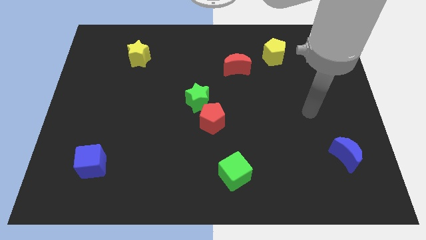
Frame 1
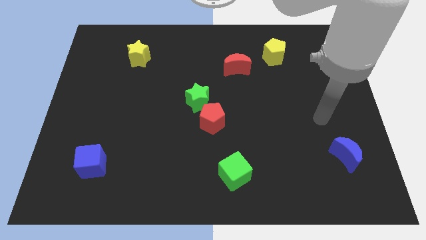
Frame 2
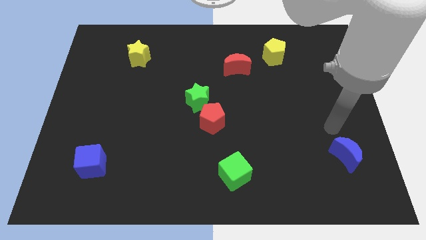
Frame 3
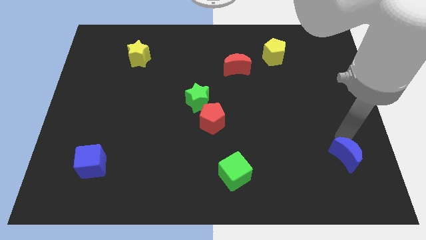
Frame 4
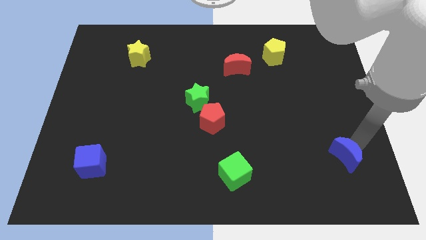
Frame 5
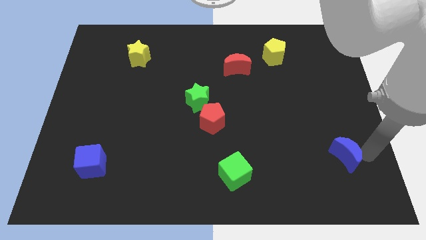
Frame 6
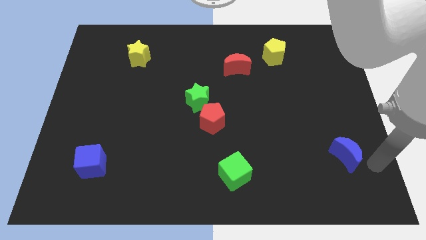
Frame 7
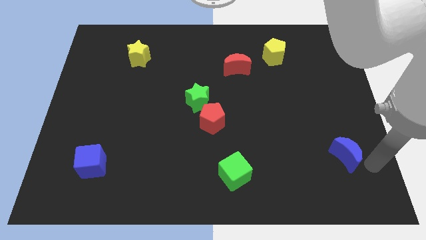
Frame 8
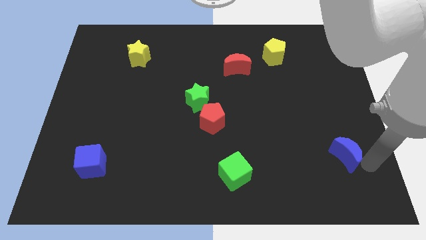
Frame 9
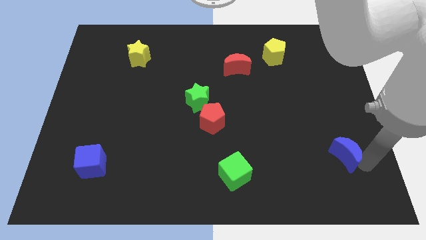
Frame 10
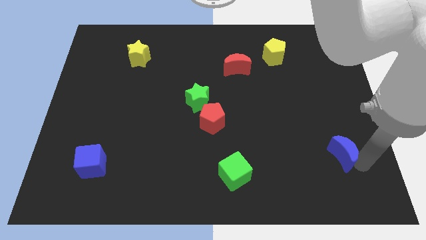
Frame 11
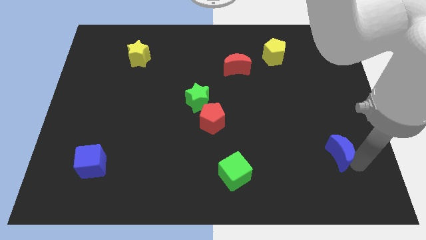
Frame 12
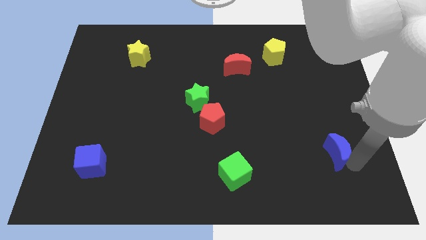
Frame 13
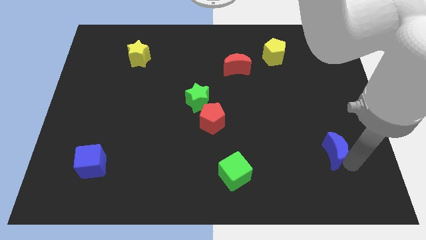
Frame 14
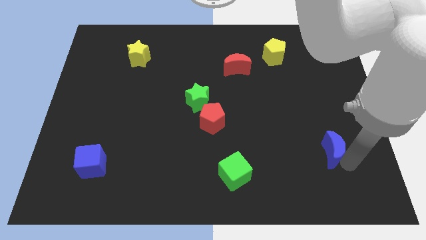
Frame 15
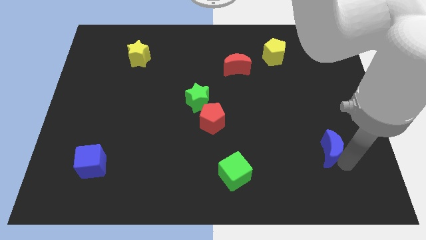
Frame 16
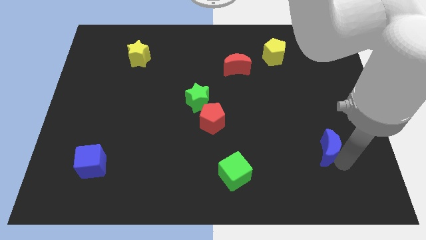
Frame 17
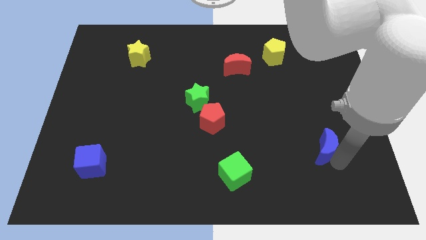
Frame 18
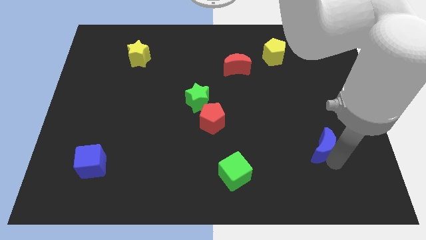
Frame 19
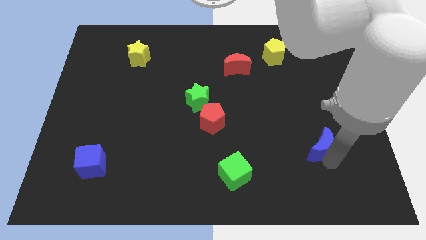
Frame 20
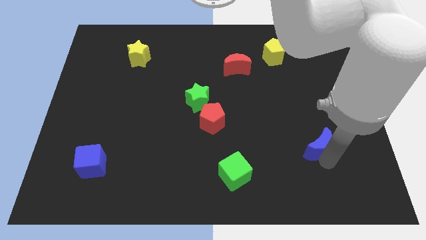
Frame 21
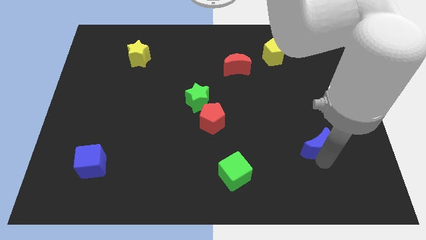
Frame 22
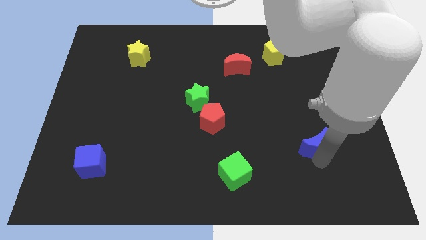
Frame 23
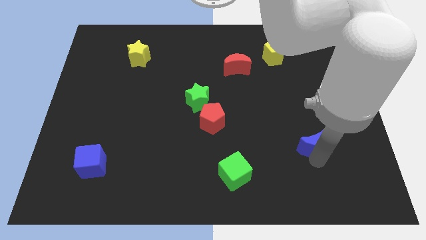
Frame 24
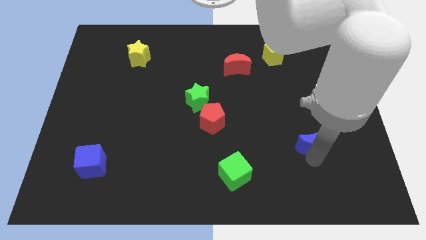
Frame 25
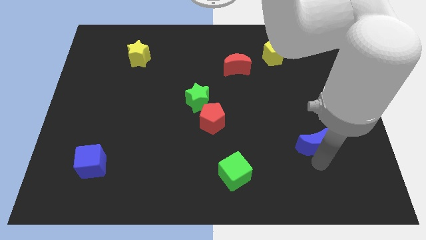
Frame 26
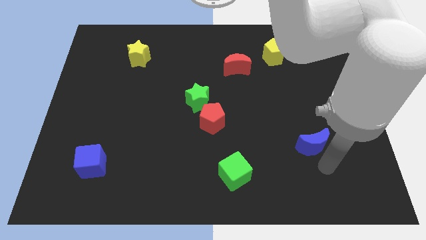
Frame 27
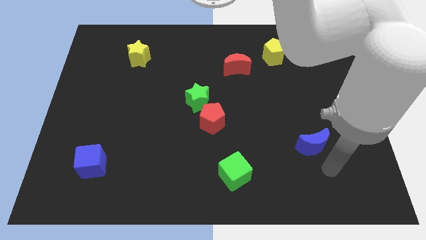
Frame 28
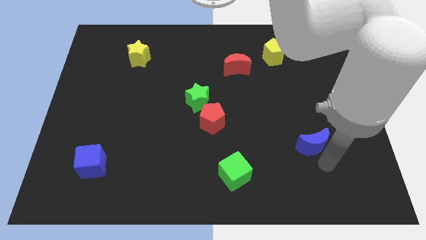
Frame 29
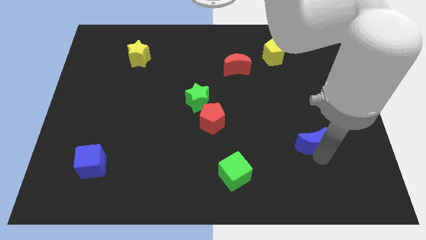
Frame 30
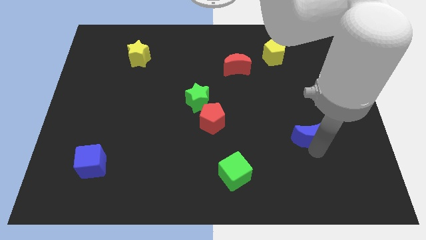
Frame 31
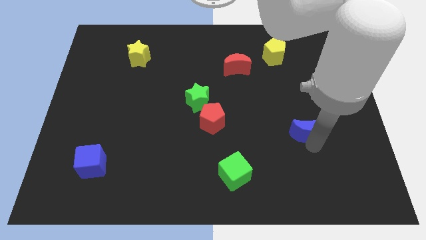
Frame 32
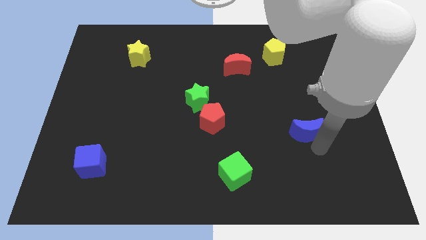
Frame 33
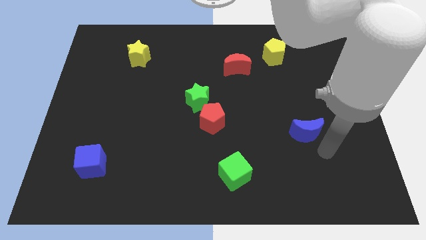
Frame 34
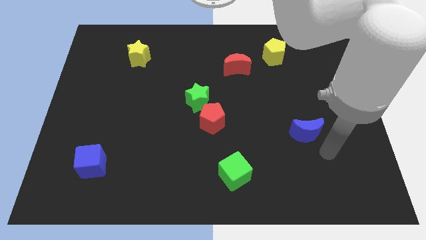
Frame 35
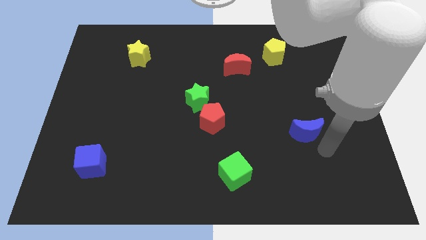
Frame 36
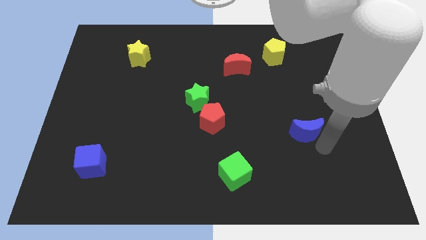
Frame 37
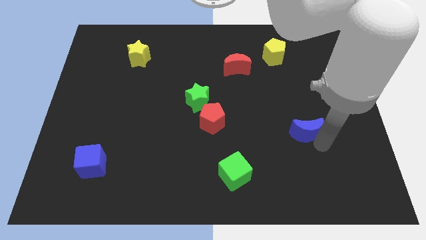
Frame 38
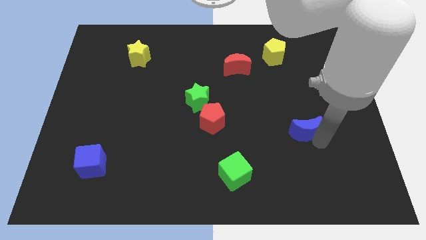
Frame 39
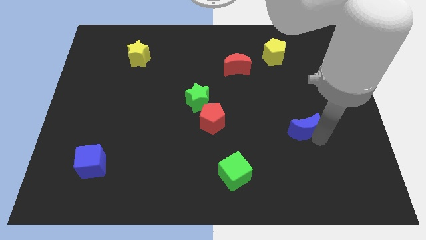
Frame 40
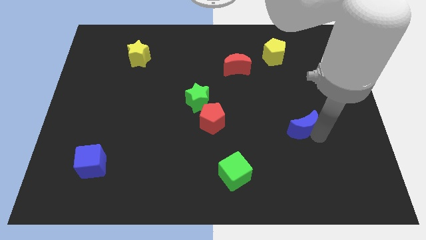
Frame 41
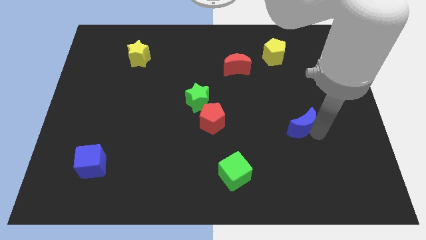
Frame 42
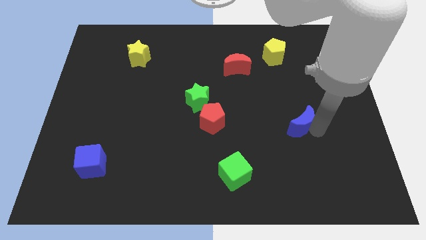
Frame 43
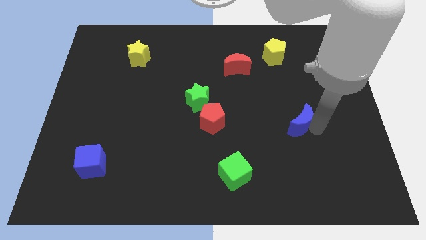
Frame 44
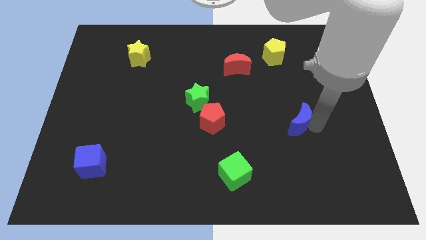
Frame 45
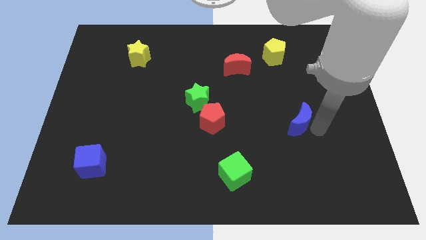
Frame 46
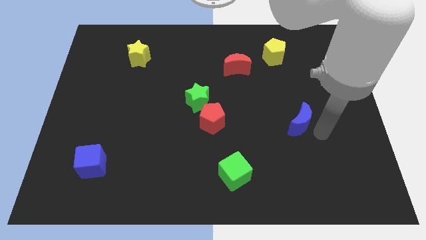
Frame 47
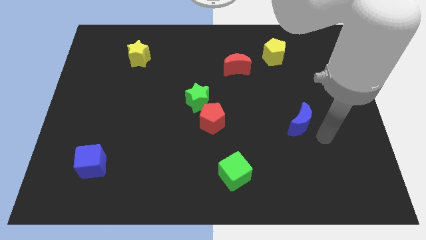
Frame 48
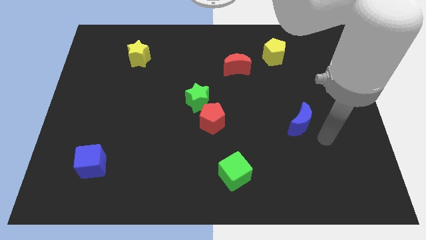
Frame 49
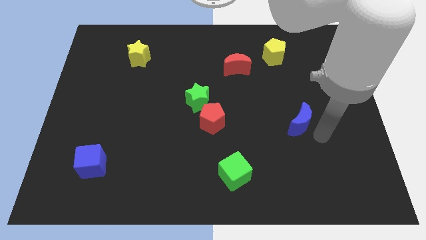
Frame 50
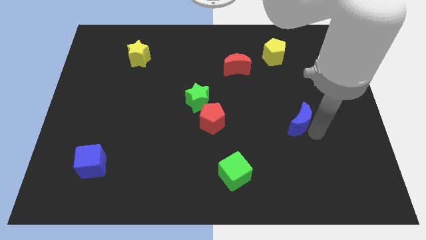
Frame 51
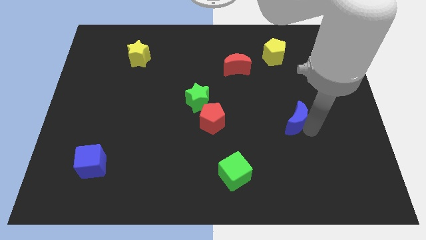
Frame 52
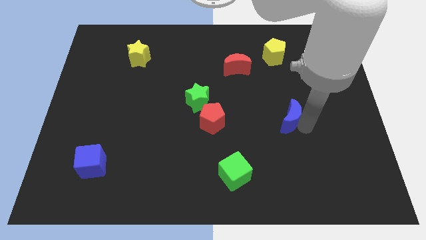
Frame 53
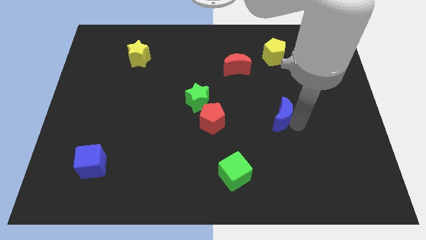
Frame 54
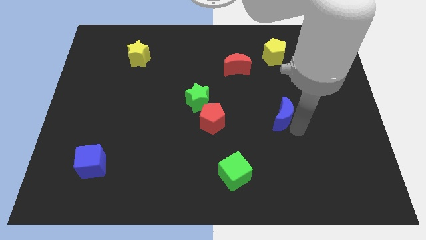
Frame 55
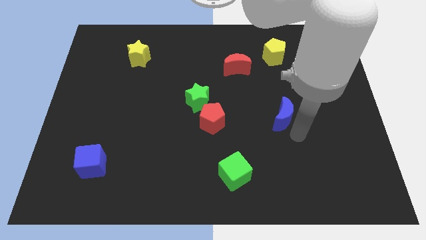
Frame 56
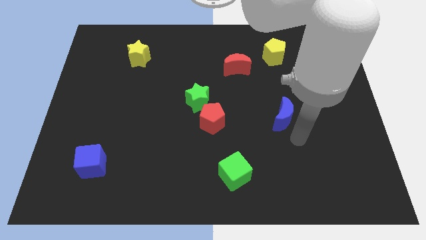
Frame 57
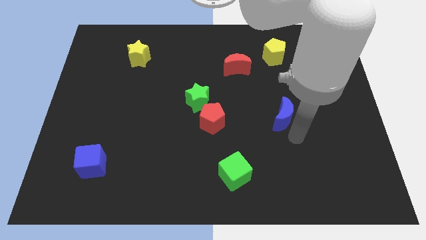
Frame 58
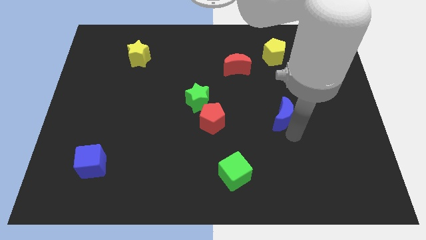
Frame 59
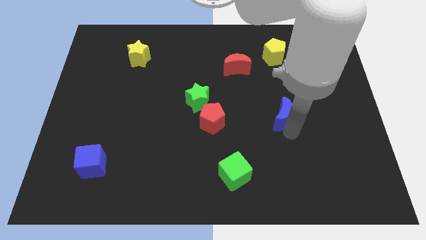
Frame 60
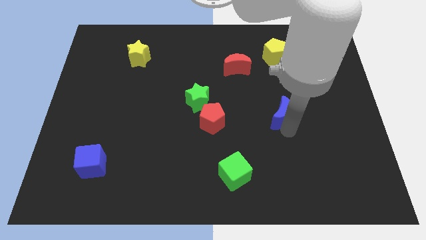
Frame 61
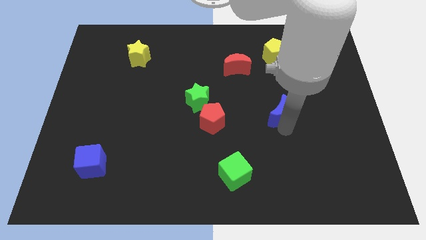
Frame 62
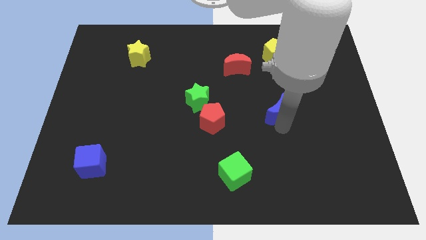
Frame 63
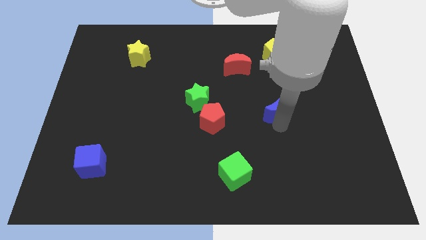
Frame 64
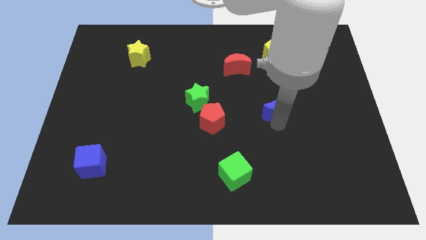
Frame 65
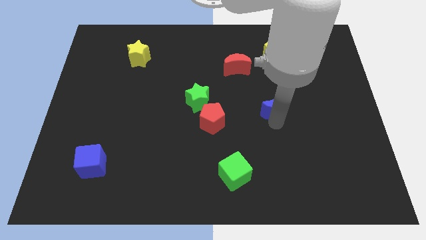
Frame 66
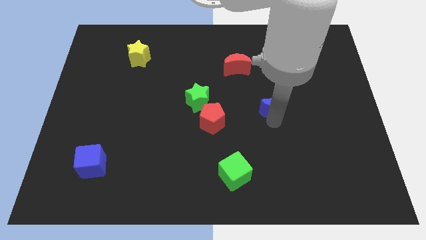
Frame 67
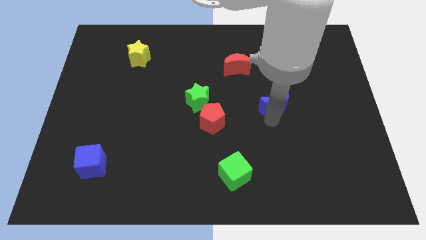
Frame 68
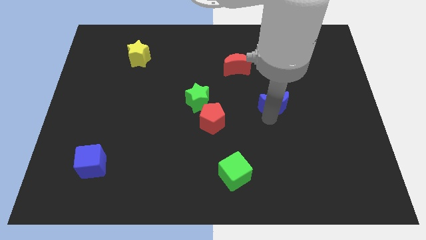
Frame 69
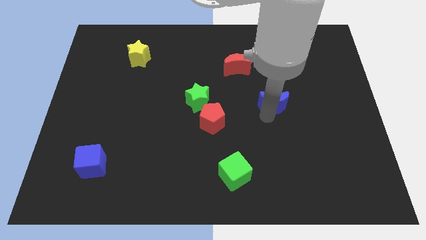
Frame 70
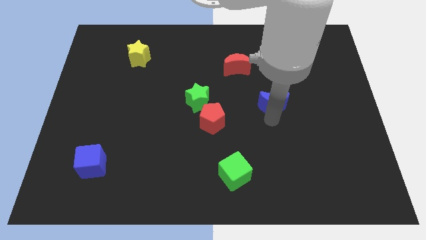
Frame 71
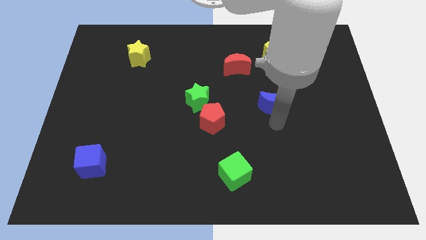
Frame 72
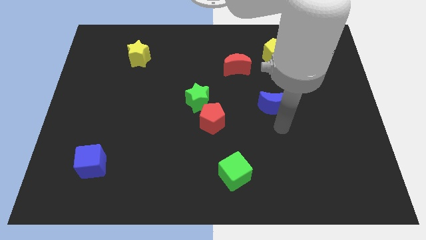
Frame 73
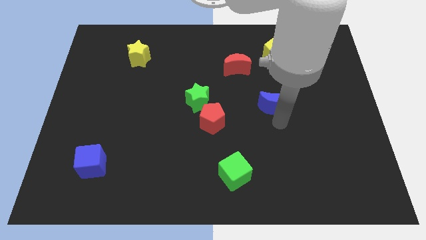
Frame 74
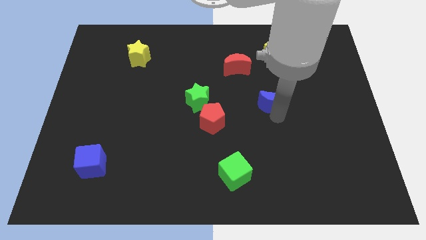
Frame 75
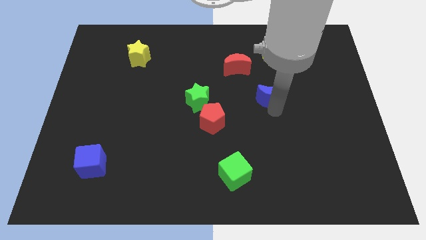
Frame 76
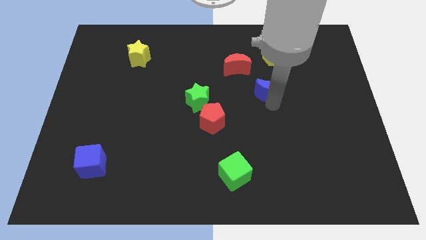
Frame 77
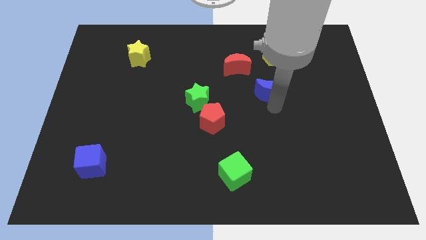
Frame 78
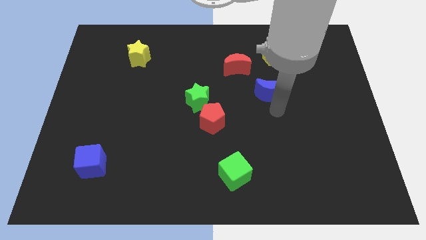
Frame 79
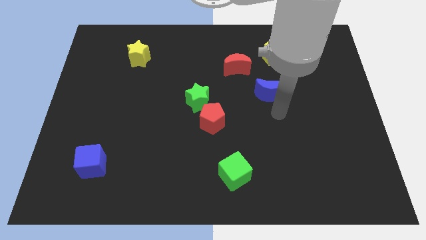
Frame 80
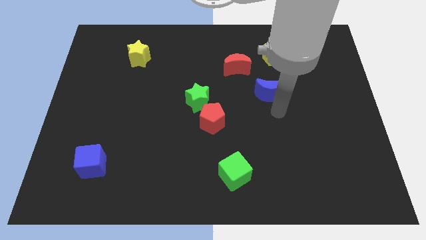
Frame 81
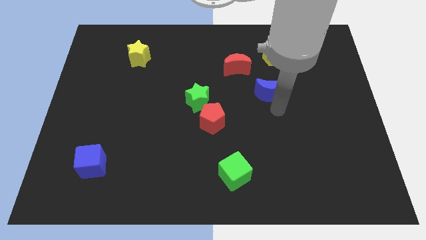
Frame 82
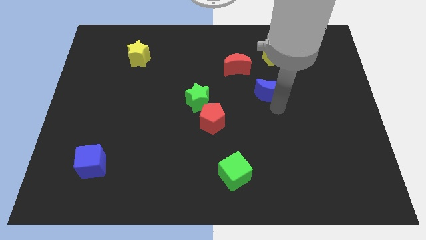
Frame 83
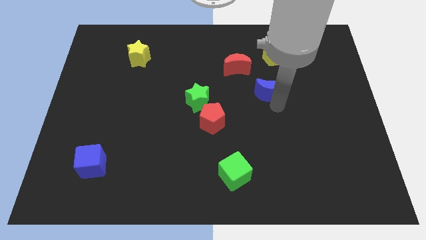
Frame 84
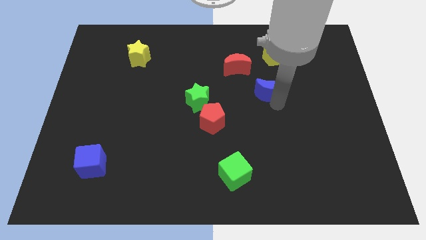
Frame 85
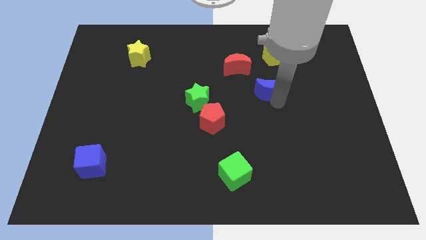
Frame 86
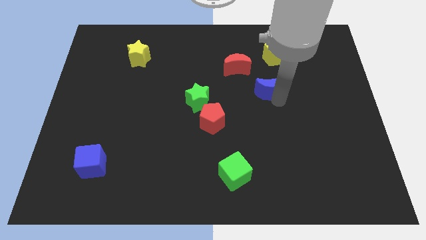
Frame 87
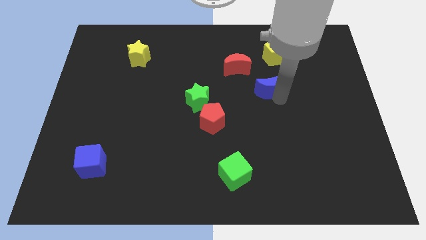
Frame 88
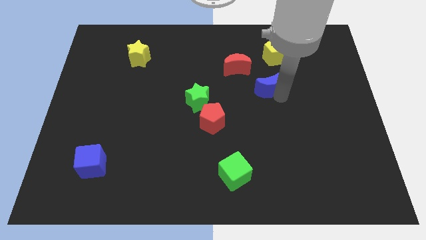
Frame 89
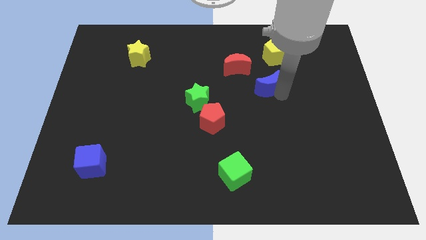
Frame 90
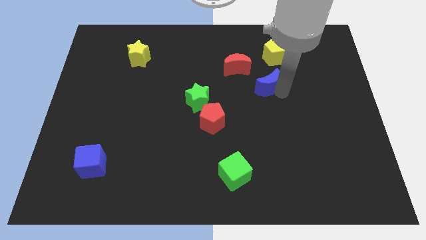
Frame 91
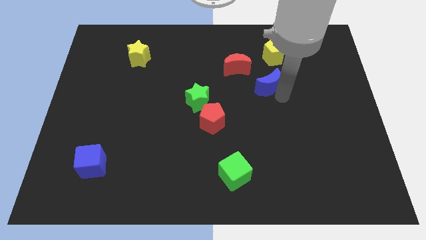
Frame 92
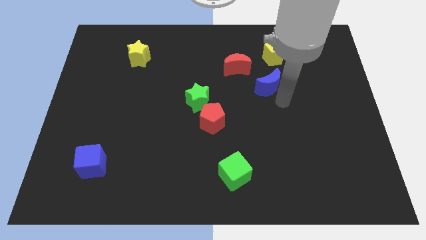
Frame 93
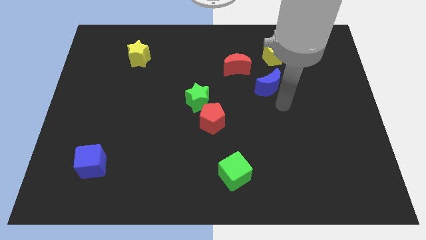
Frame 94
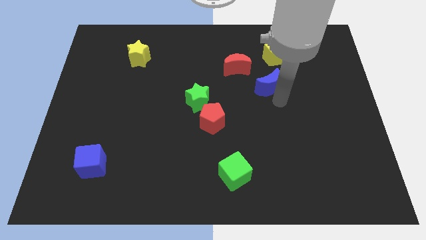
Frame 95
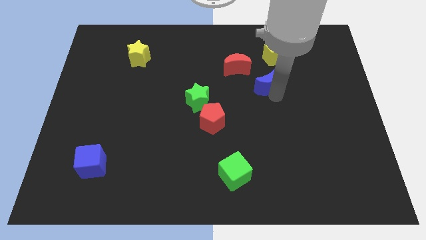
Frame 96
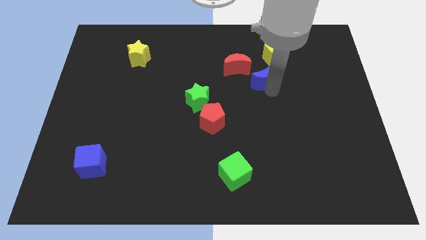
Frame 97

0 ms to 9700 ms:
move the blue moon to the bottom left of the yellow pentagon
